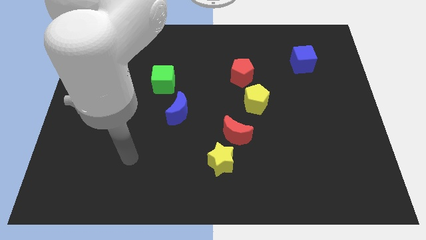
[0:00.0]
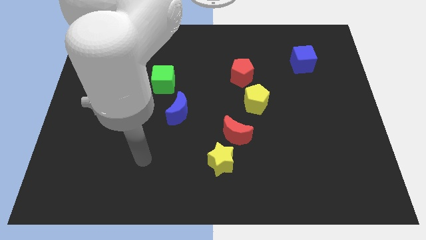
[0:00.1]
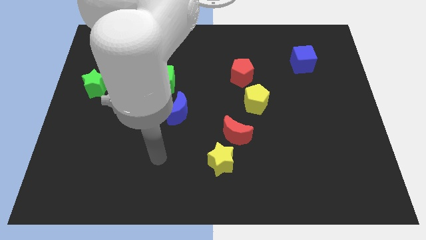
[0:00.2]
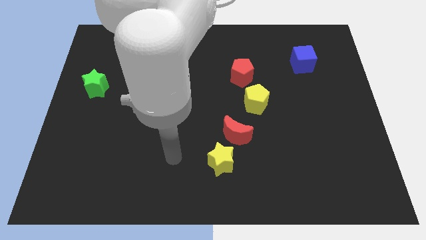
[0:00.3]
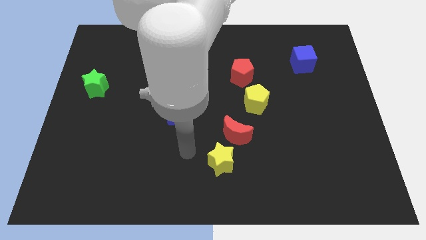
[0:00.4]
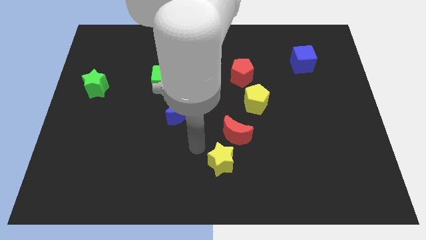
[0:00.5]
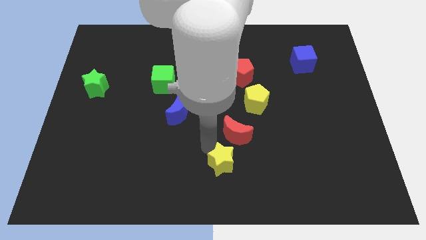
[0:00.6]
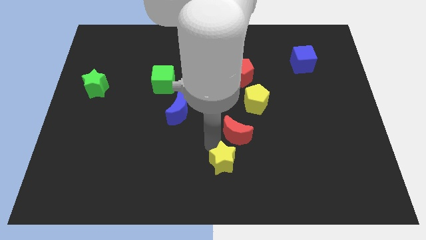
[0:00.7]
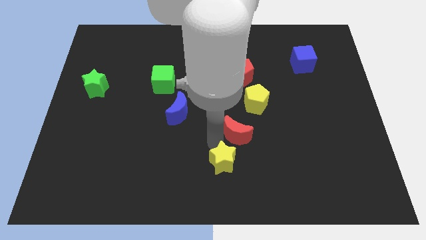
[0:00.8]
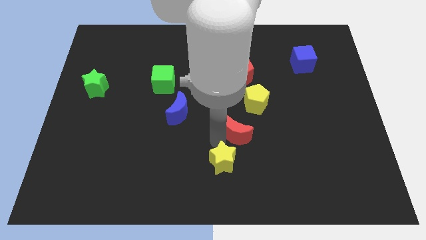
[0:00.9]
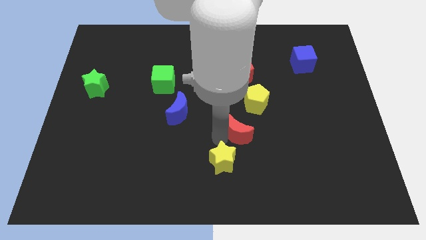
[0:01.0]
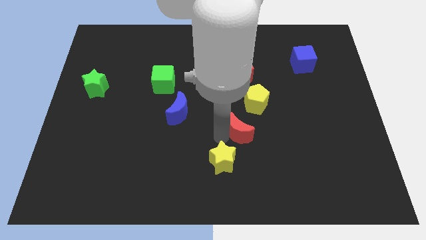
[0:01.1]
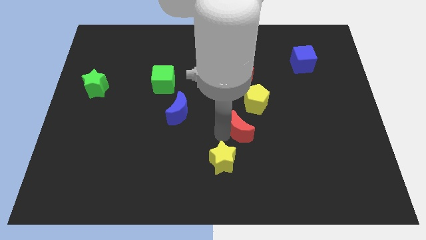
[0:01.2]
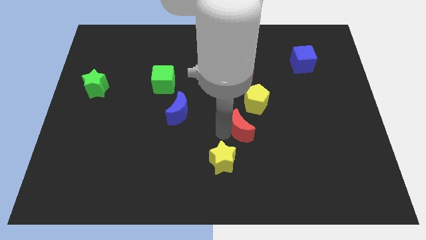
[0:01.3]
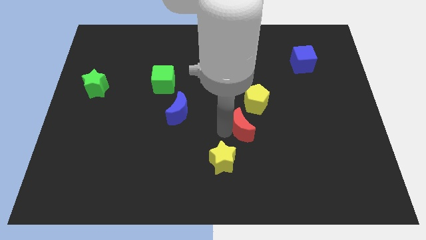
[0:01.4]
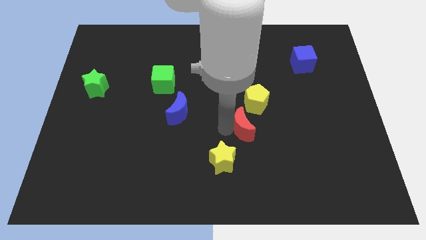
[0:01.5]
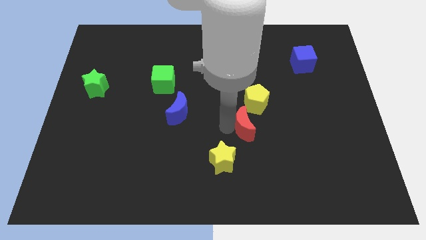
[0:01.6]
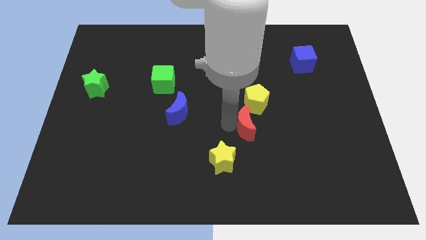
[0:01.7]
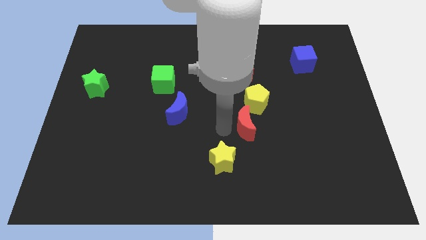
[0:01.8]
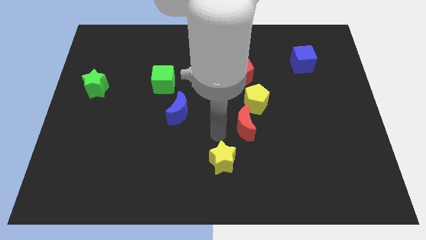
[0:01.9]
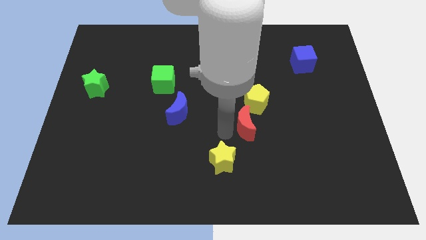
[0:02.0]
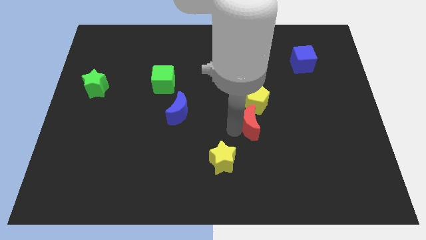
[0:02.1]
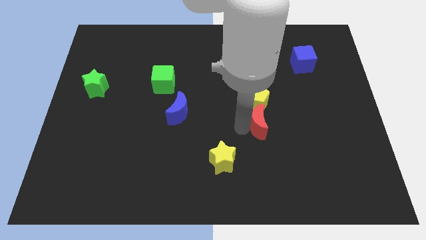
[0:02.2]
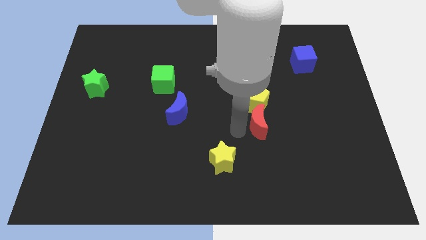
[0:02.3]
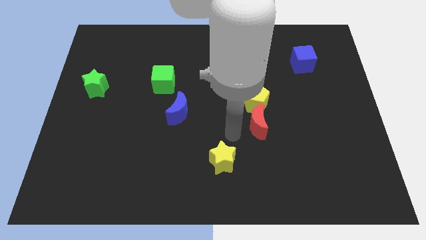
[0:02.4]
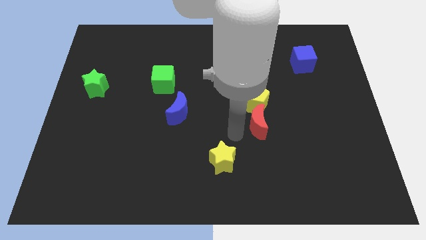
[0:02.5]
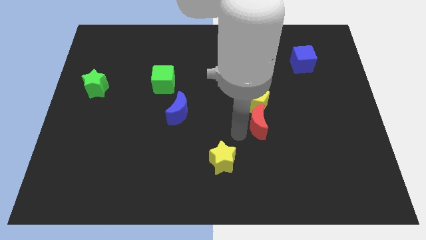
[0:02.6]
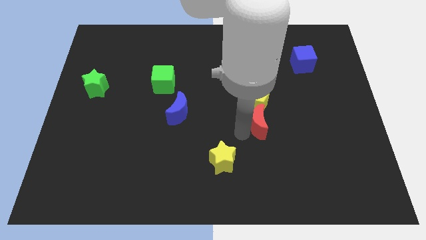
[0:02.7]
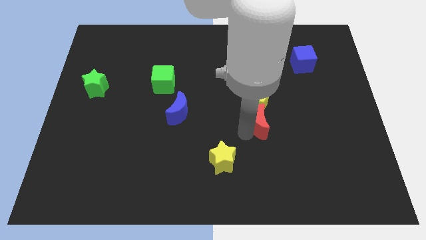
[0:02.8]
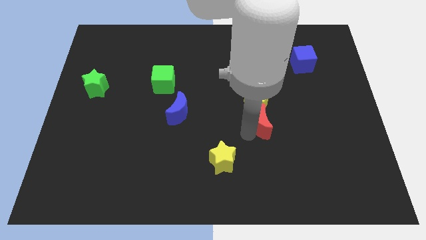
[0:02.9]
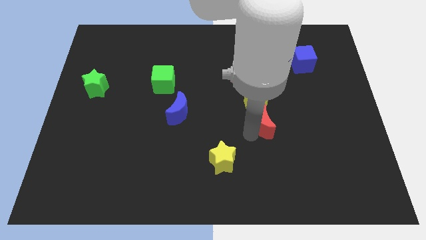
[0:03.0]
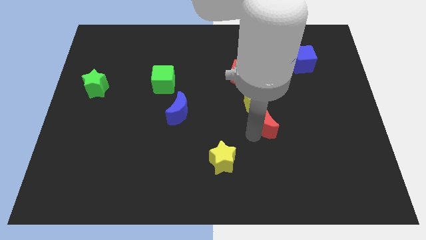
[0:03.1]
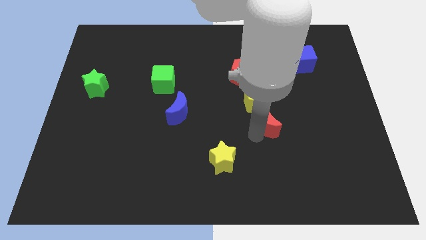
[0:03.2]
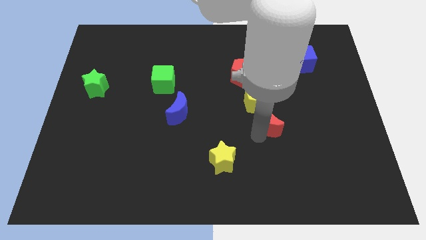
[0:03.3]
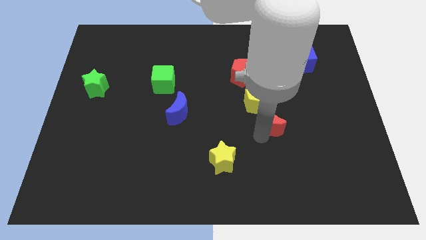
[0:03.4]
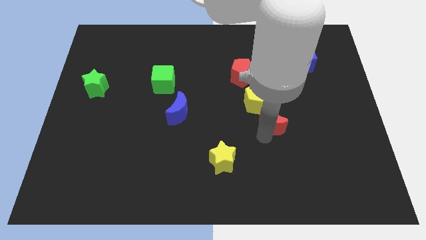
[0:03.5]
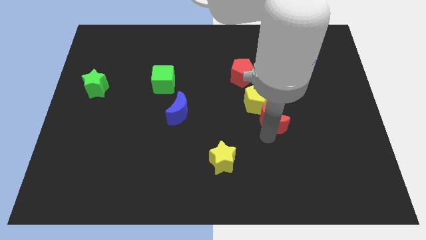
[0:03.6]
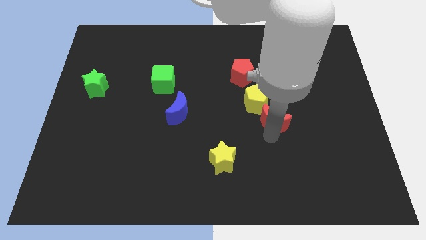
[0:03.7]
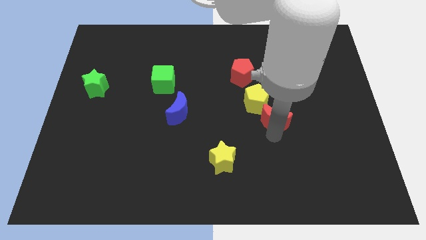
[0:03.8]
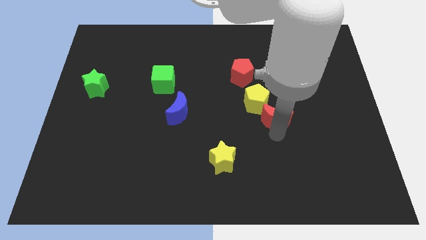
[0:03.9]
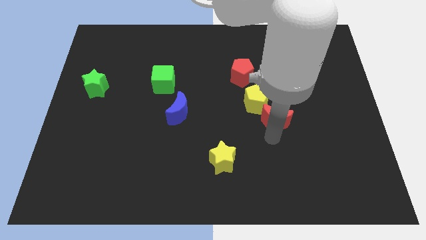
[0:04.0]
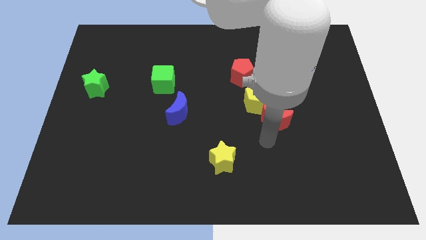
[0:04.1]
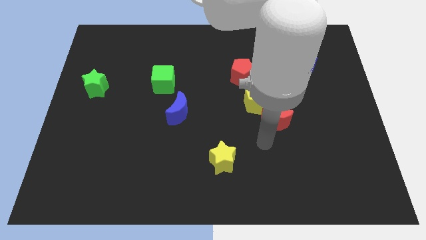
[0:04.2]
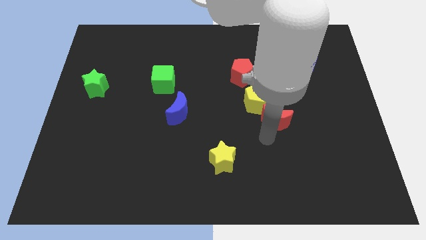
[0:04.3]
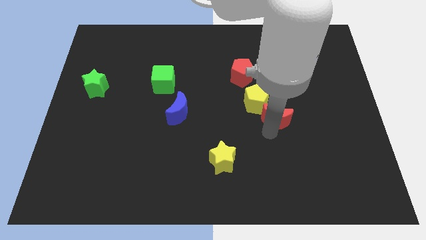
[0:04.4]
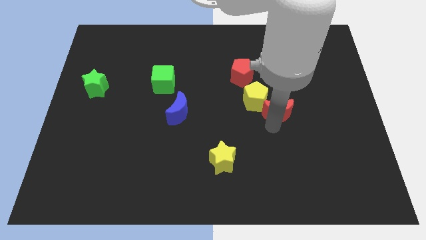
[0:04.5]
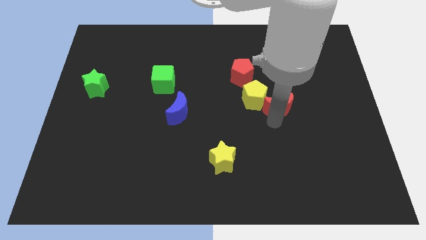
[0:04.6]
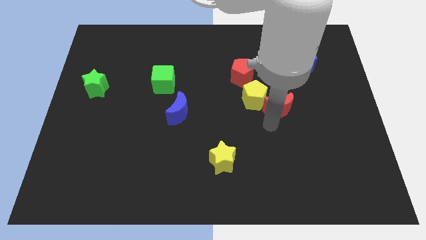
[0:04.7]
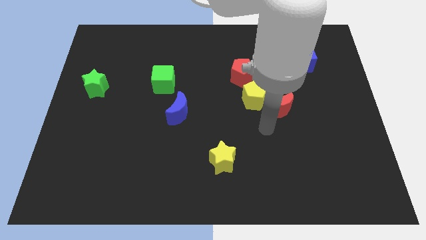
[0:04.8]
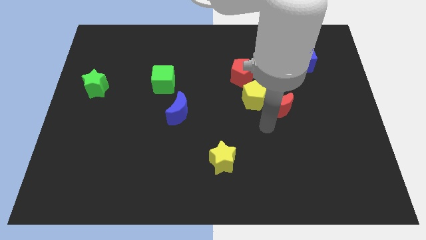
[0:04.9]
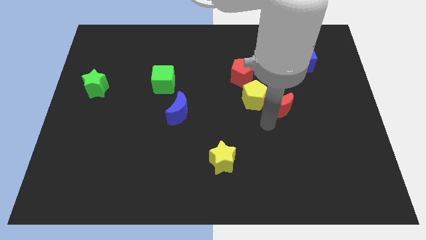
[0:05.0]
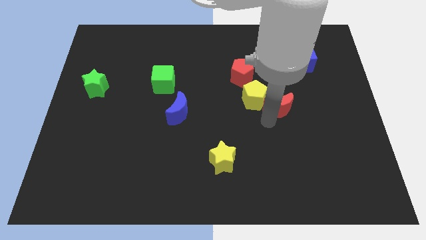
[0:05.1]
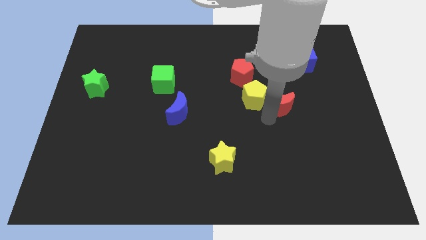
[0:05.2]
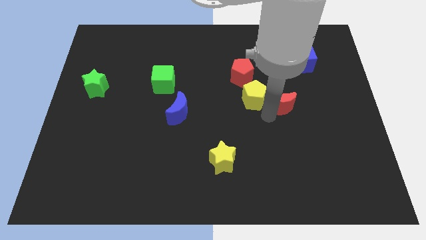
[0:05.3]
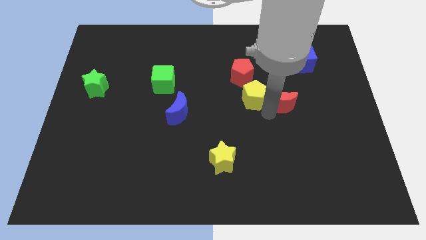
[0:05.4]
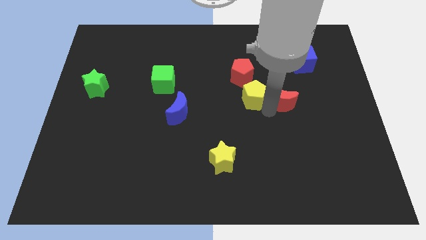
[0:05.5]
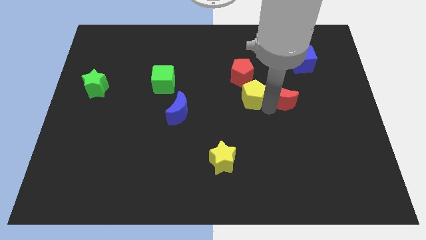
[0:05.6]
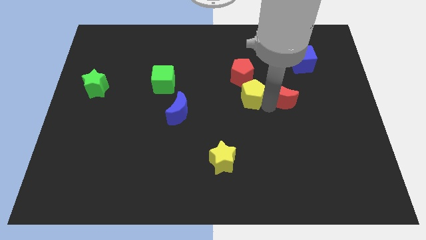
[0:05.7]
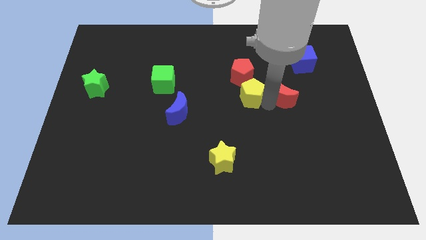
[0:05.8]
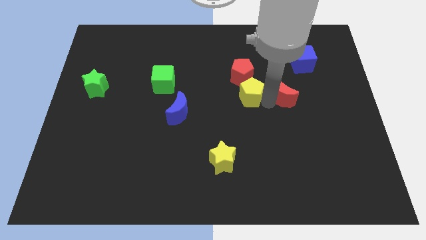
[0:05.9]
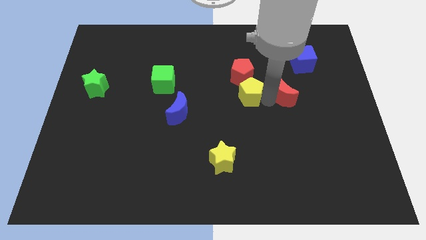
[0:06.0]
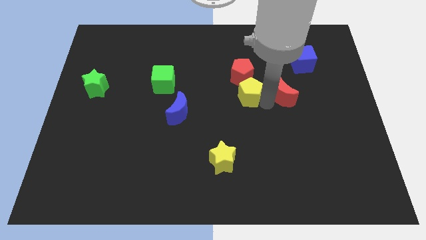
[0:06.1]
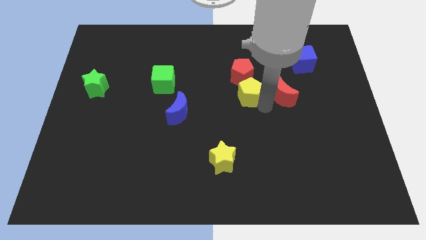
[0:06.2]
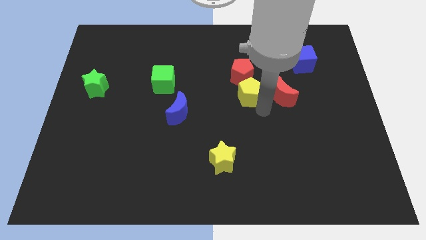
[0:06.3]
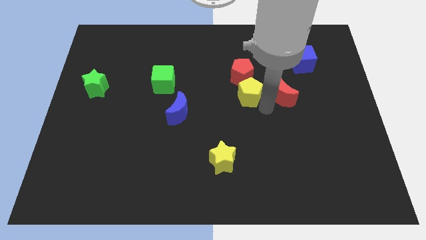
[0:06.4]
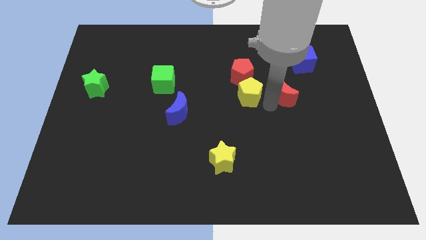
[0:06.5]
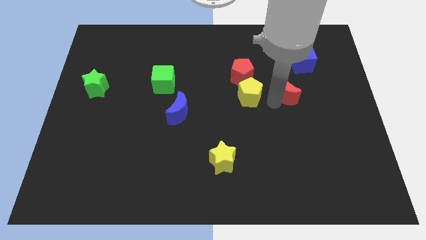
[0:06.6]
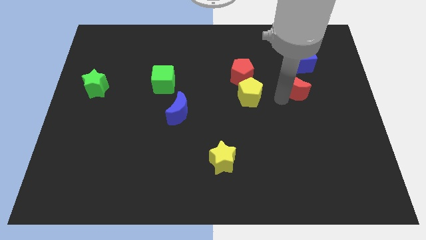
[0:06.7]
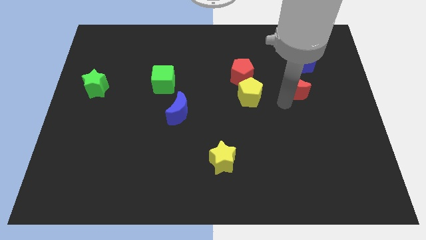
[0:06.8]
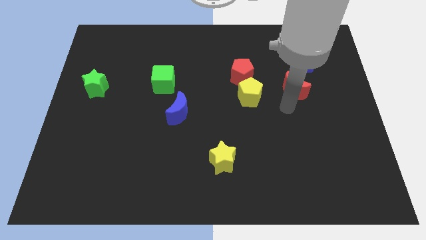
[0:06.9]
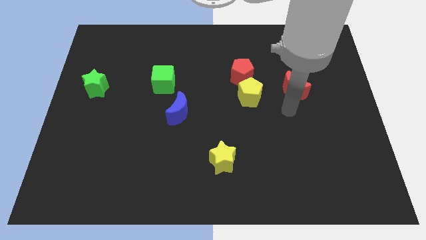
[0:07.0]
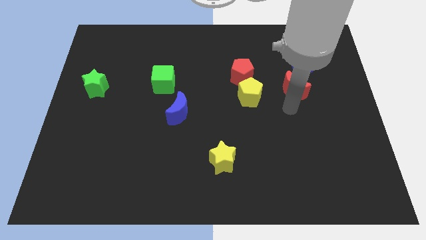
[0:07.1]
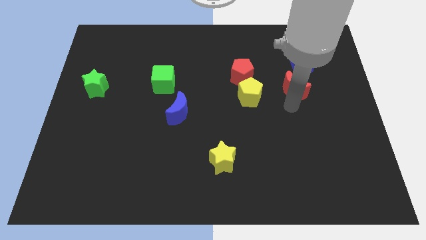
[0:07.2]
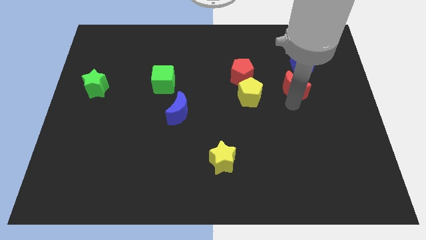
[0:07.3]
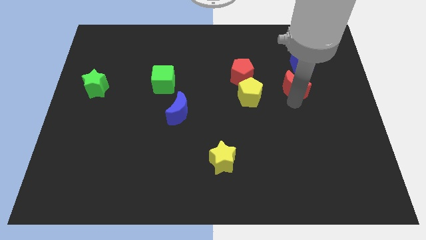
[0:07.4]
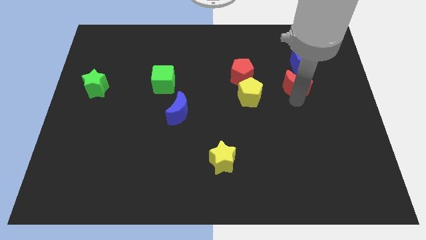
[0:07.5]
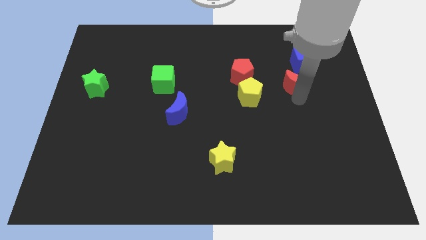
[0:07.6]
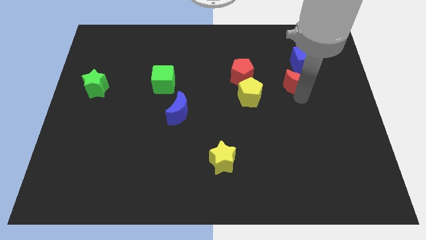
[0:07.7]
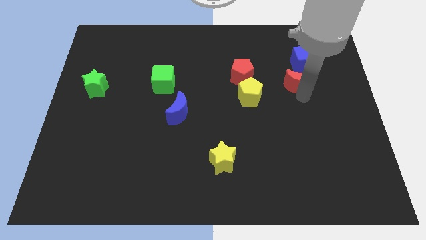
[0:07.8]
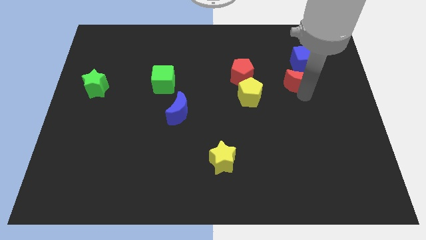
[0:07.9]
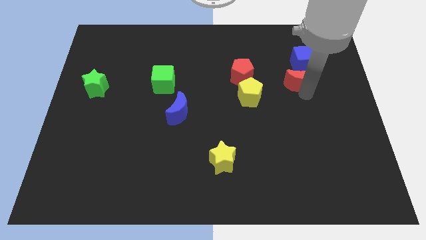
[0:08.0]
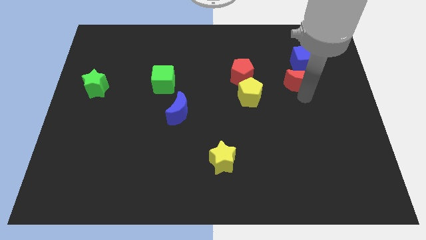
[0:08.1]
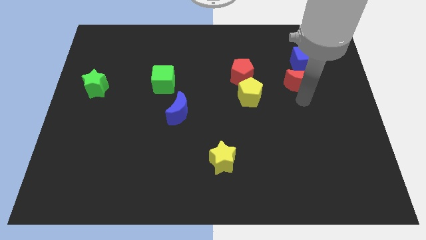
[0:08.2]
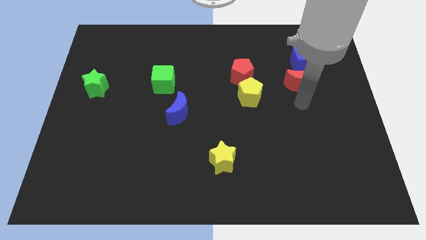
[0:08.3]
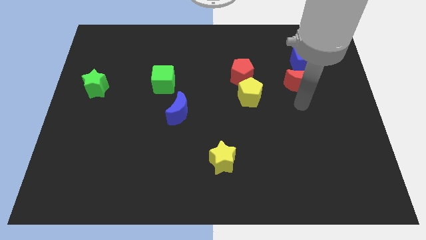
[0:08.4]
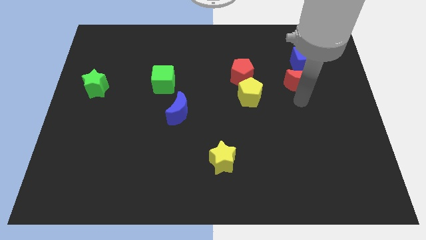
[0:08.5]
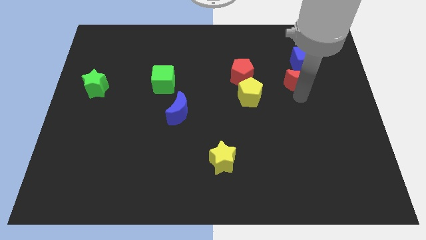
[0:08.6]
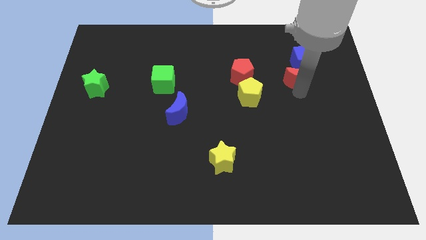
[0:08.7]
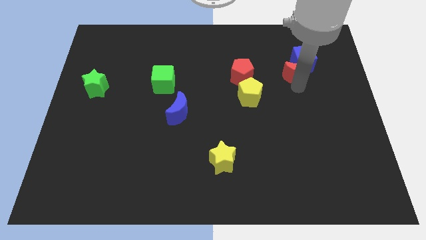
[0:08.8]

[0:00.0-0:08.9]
move the red moon next to the blue cube
